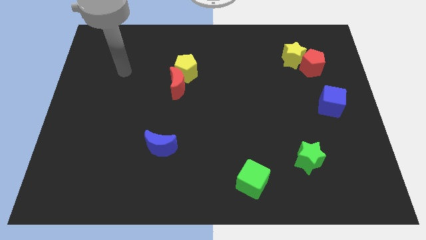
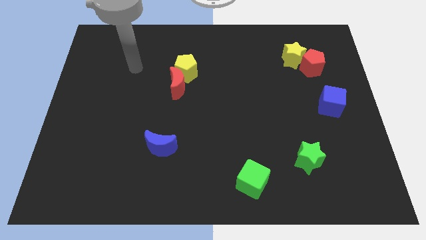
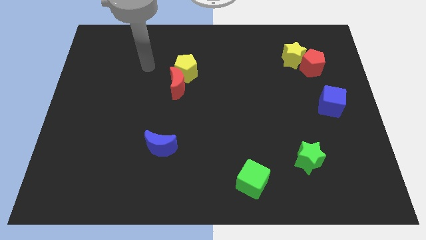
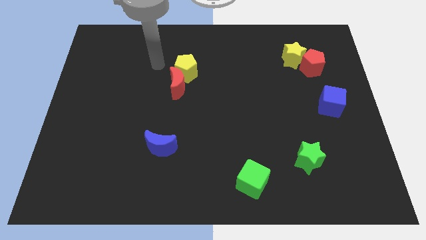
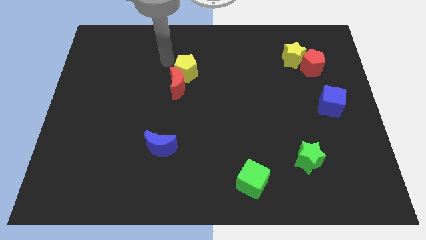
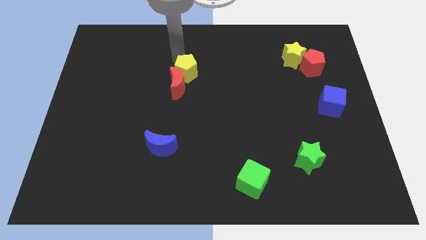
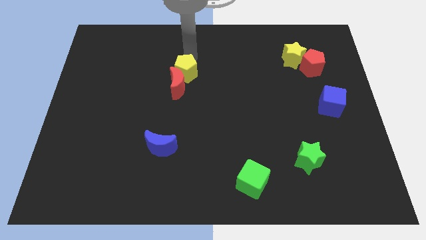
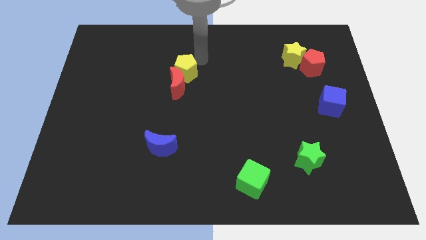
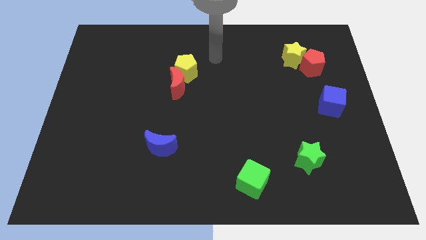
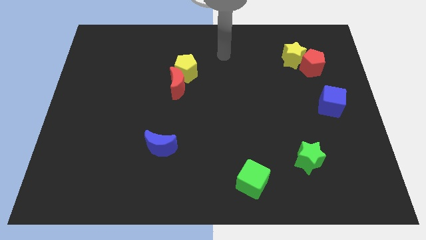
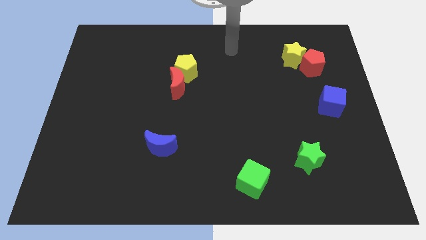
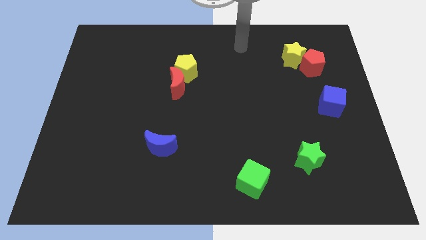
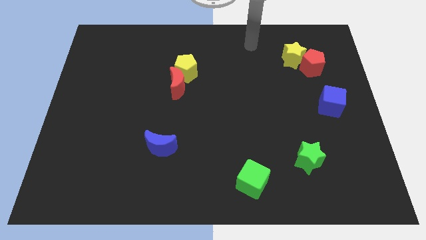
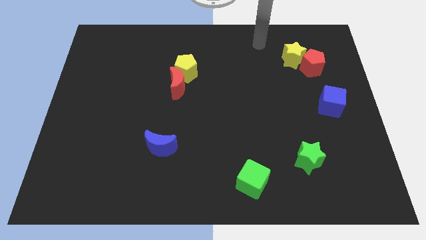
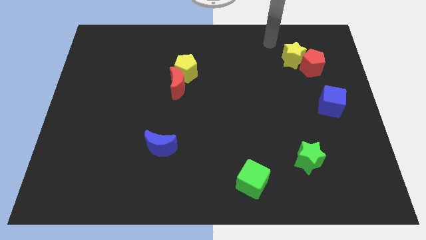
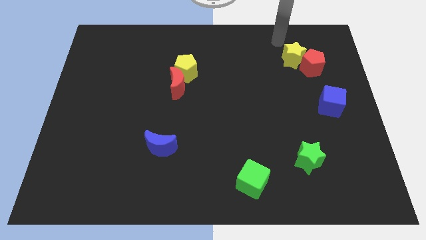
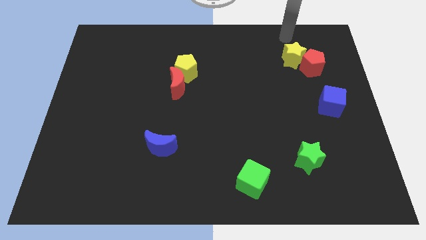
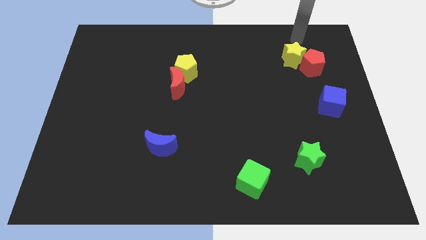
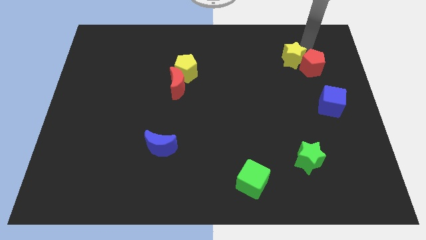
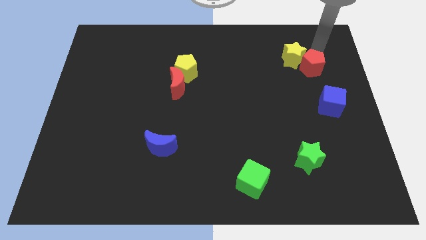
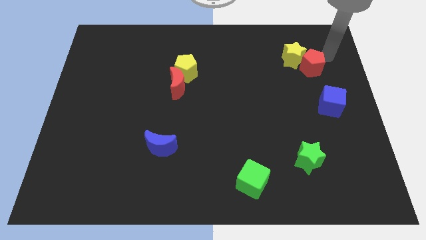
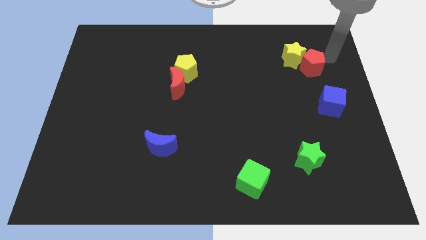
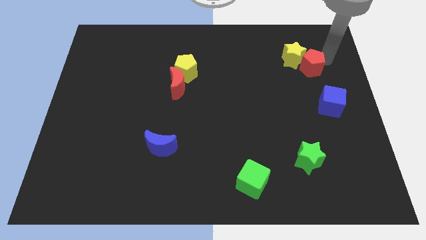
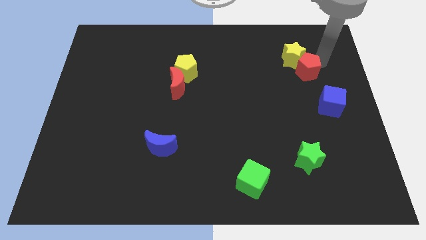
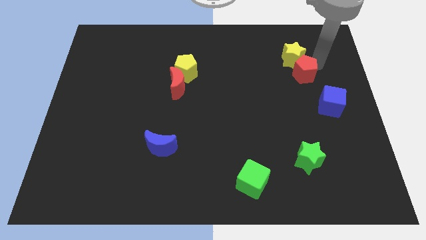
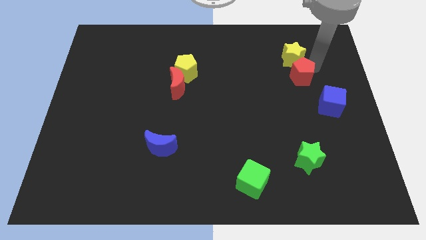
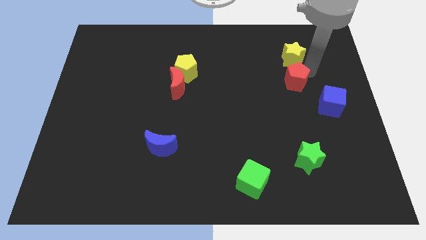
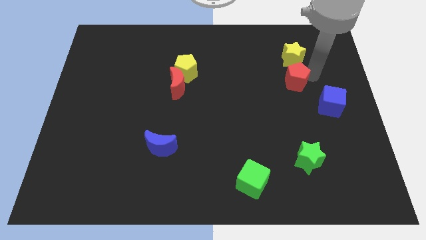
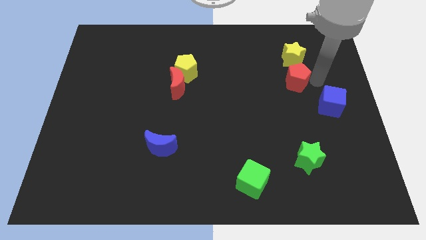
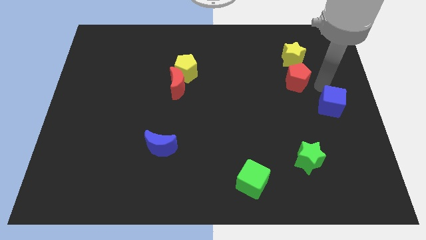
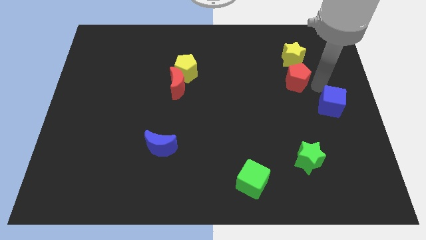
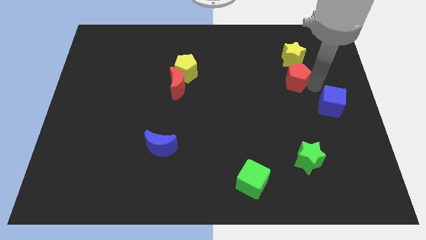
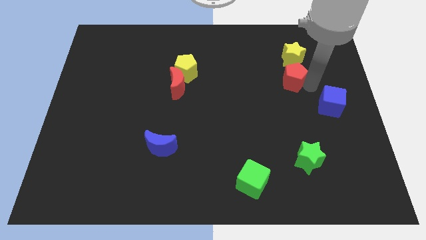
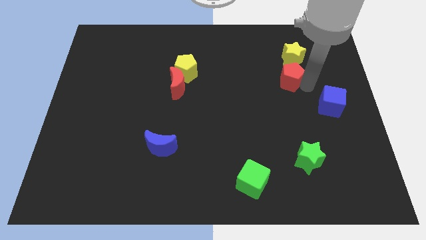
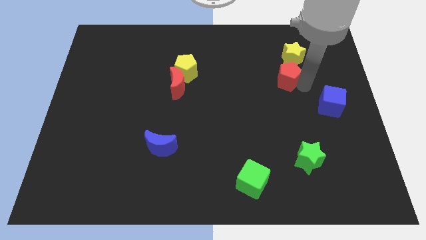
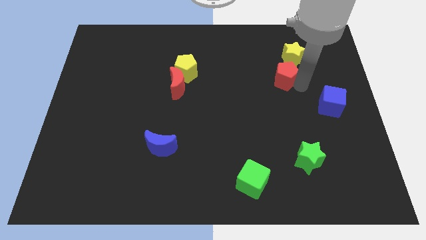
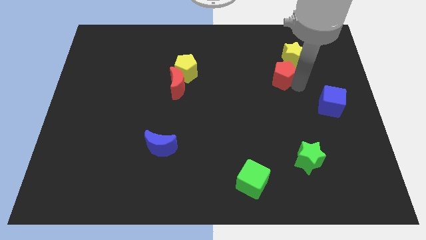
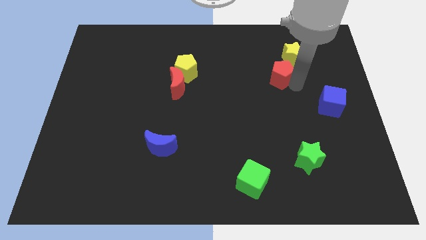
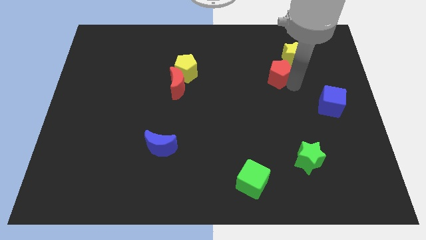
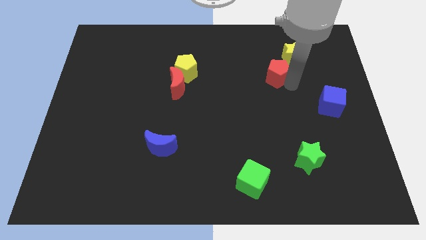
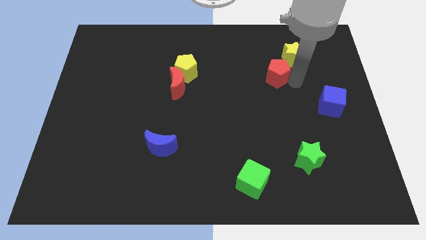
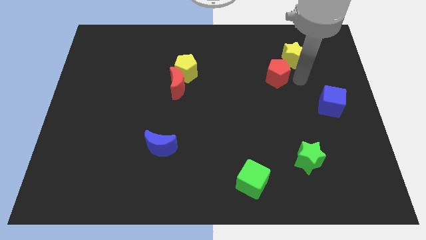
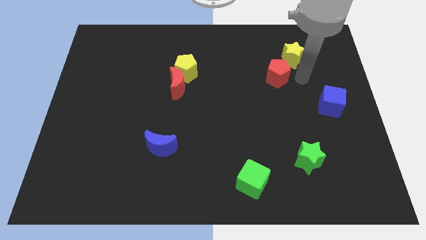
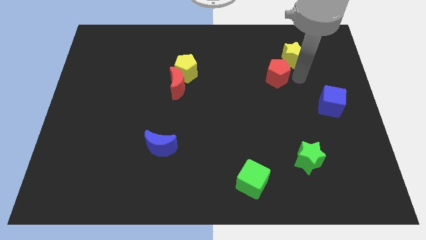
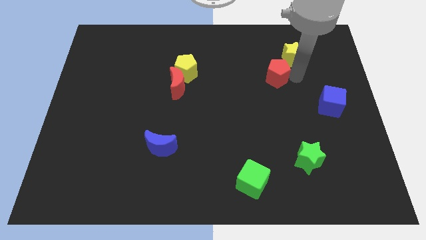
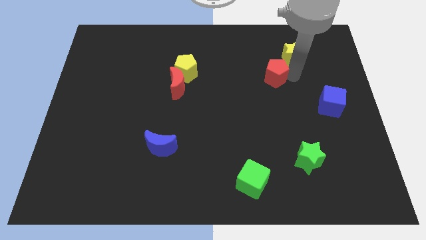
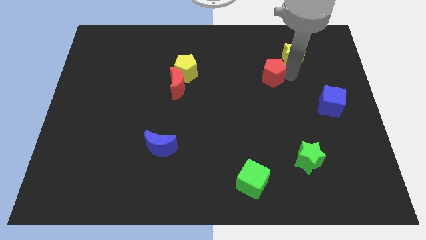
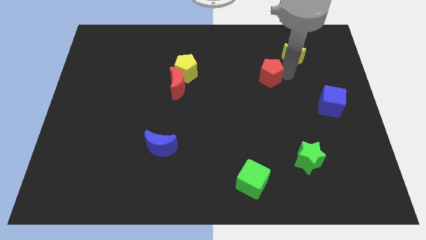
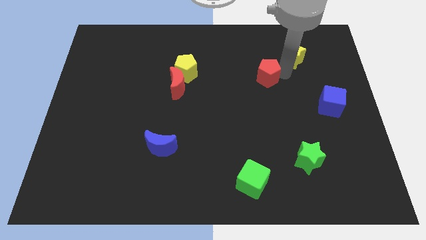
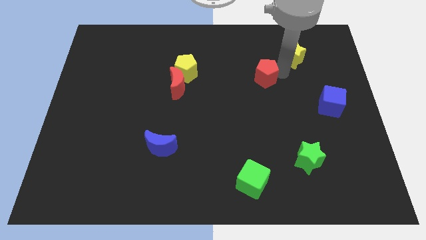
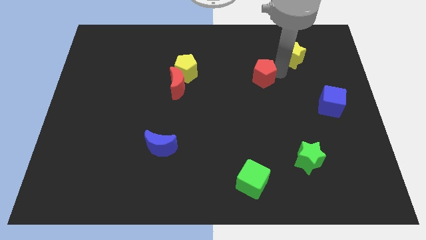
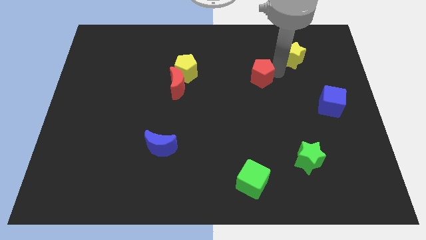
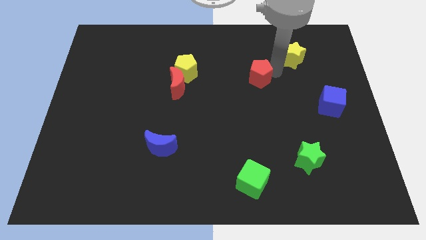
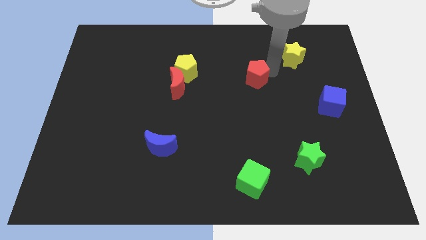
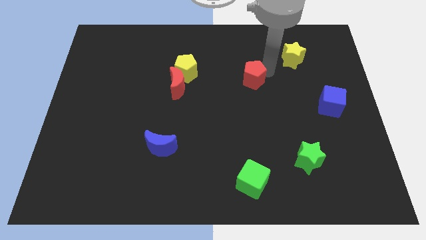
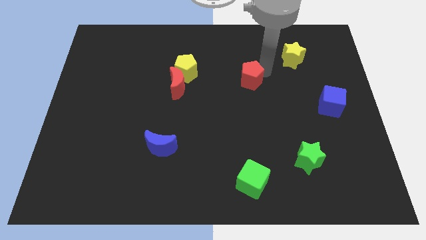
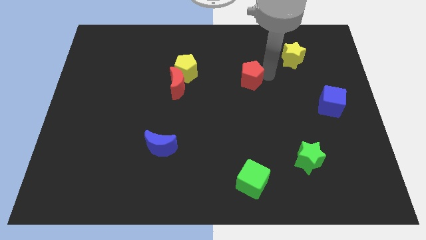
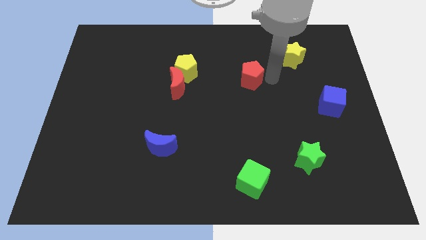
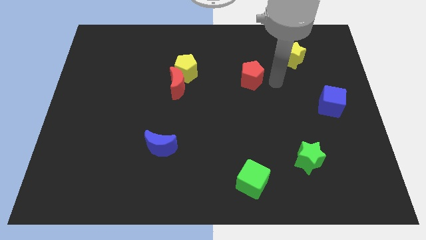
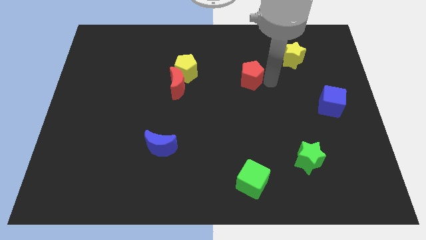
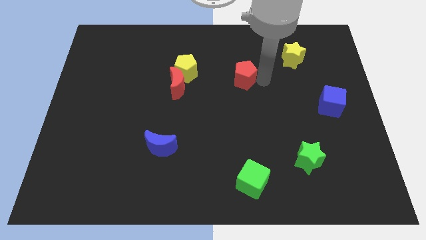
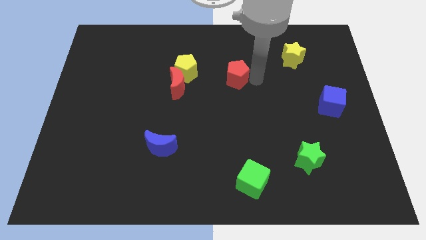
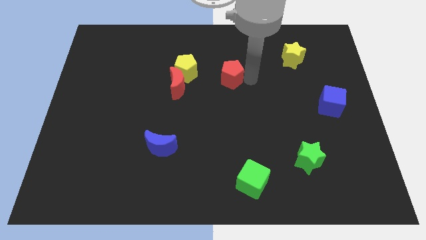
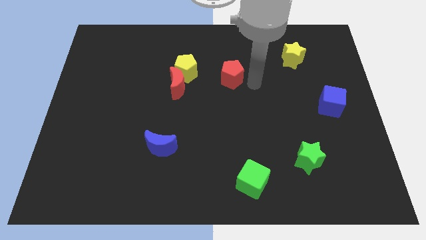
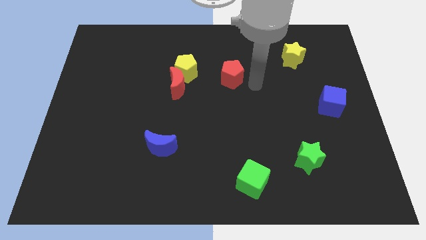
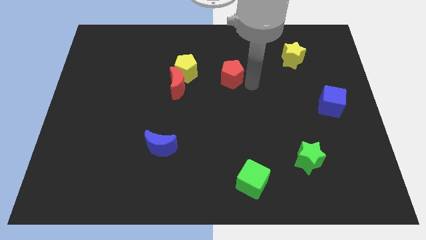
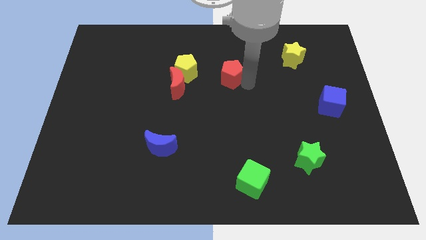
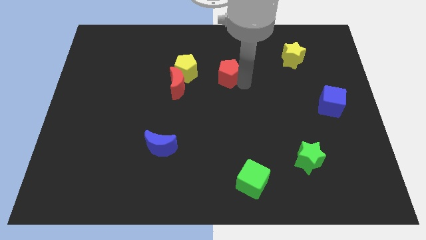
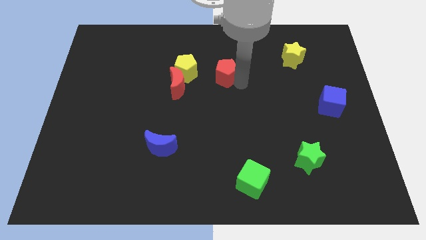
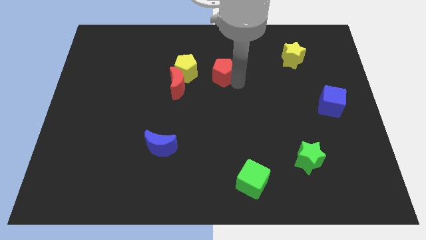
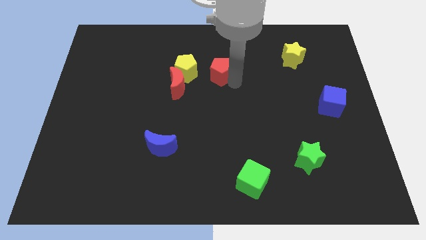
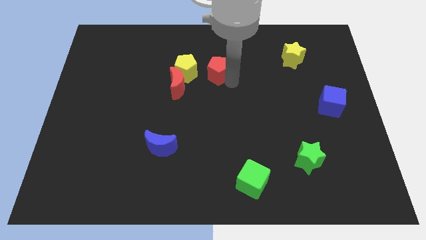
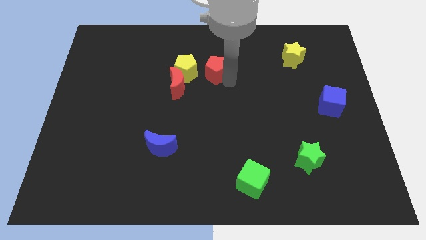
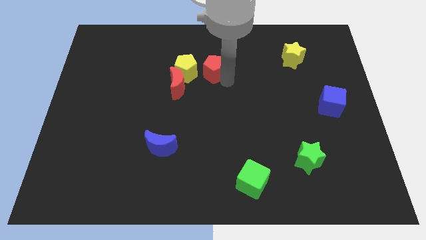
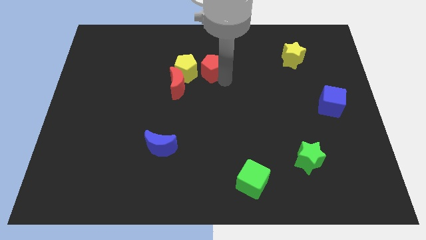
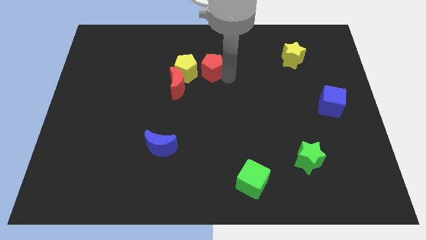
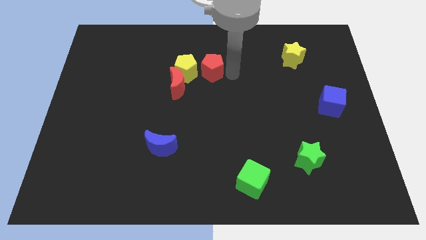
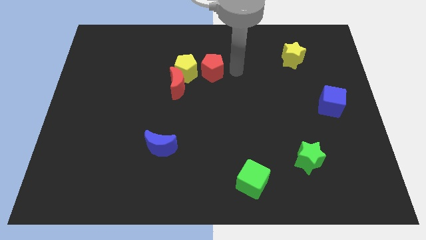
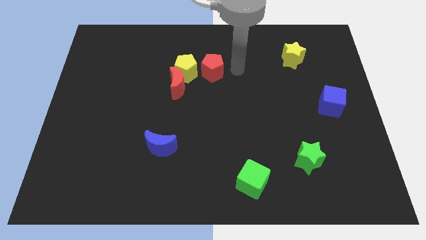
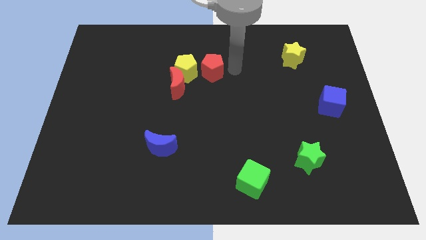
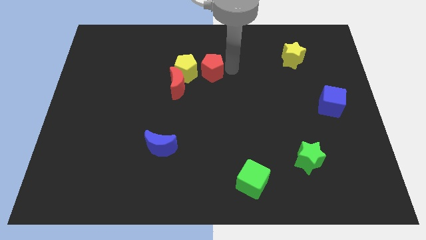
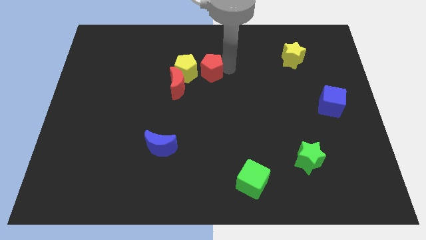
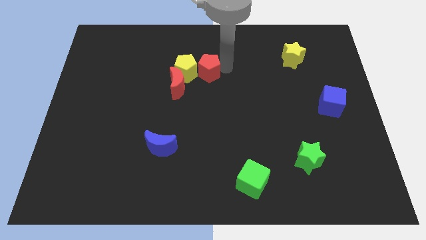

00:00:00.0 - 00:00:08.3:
put the red pentagon to the yellow pentagon
